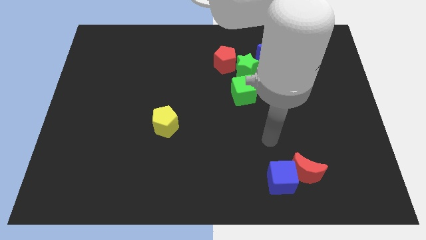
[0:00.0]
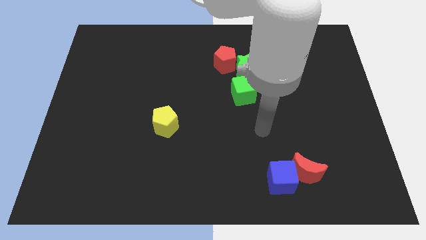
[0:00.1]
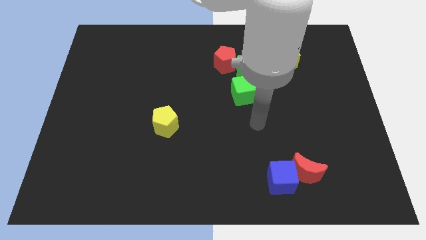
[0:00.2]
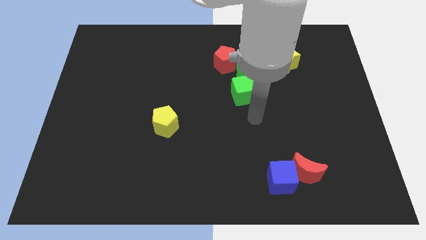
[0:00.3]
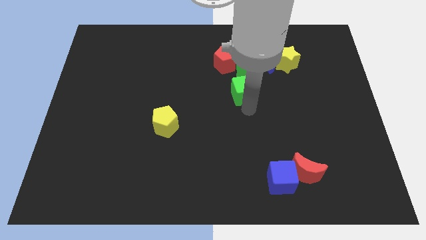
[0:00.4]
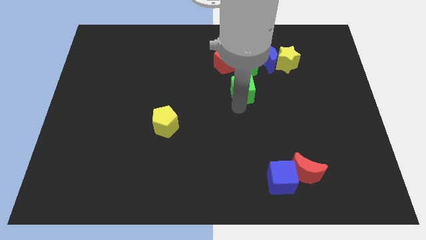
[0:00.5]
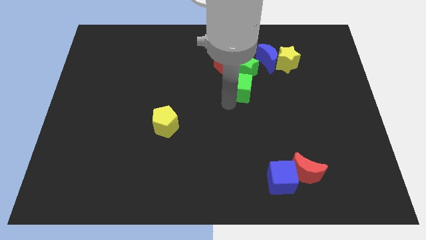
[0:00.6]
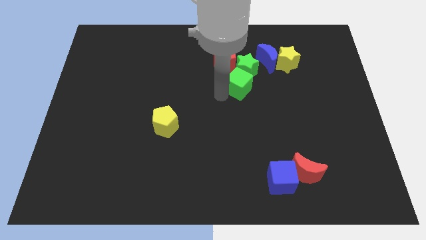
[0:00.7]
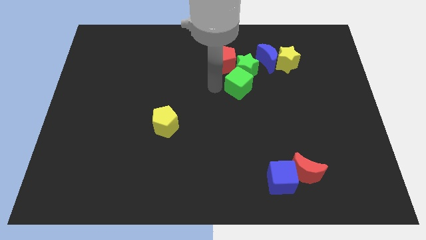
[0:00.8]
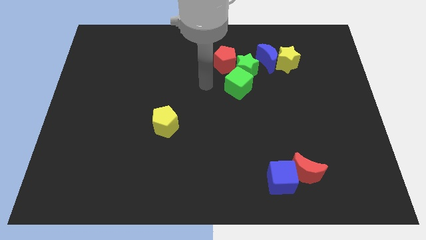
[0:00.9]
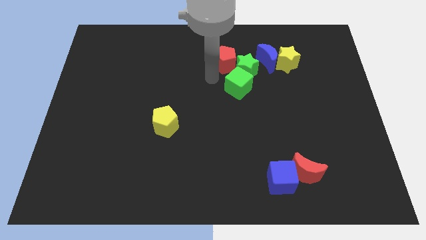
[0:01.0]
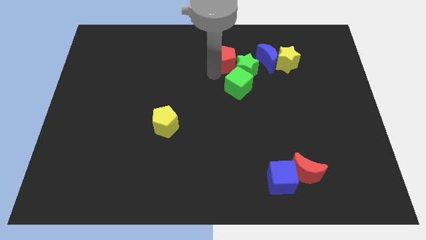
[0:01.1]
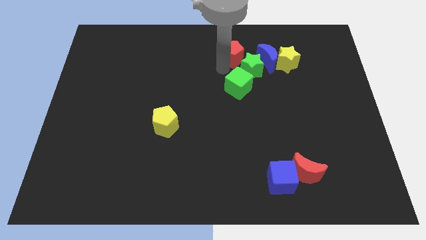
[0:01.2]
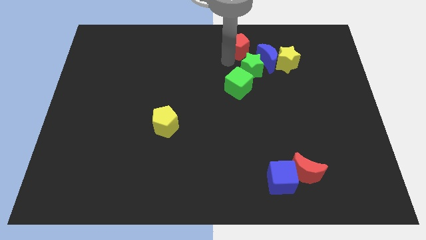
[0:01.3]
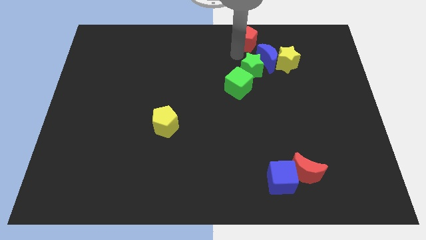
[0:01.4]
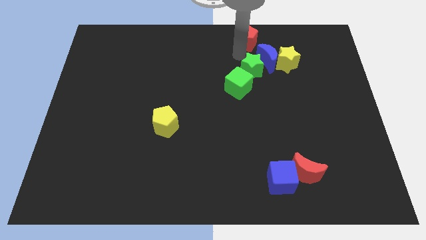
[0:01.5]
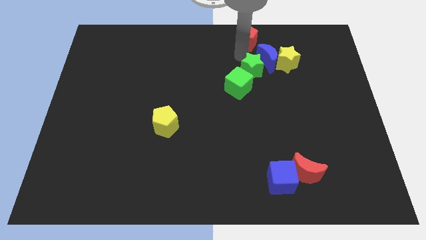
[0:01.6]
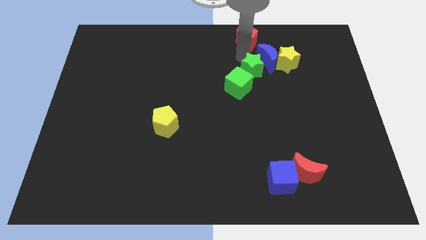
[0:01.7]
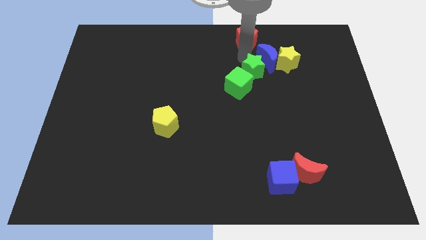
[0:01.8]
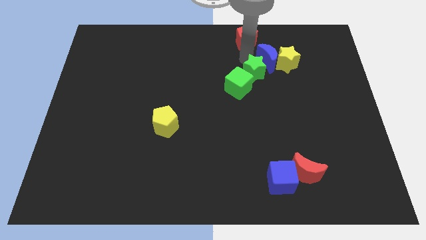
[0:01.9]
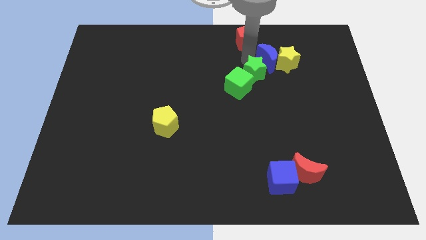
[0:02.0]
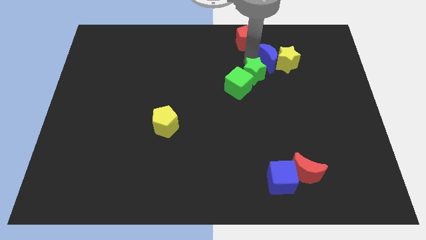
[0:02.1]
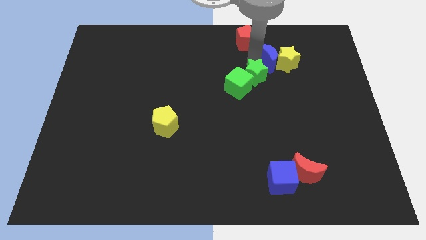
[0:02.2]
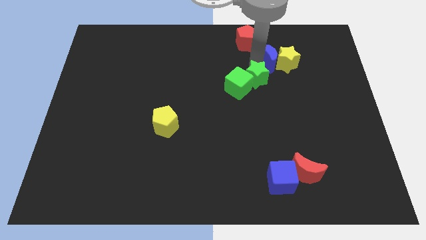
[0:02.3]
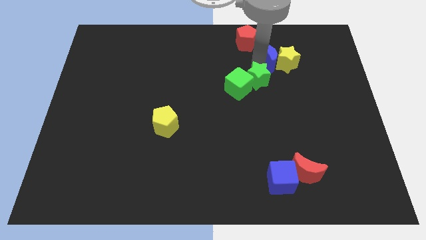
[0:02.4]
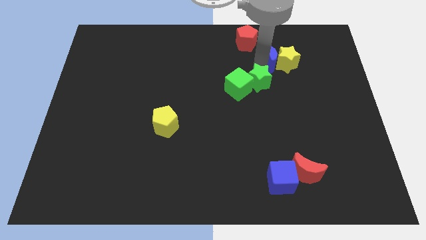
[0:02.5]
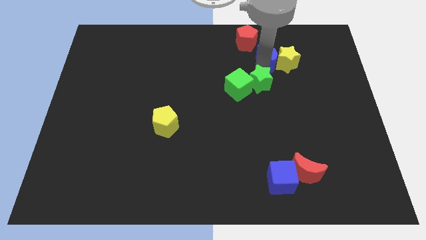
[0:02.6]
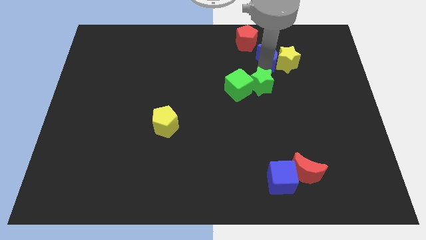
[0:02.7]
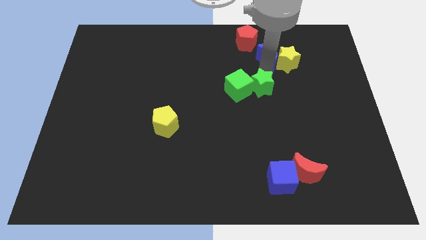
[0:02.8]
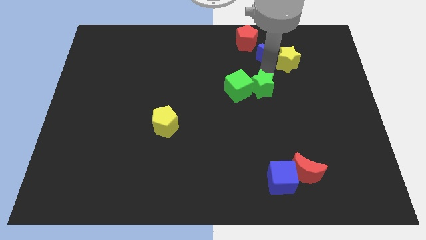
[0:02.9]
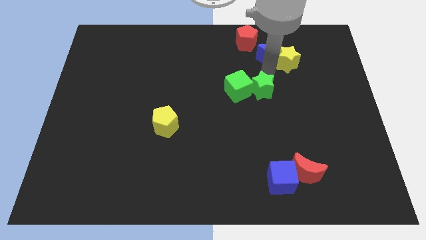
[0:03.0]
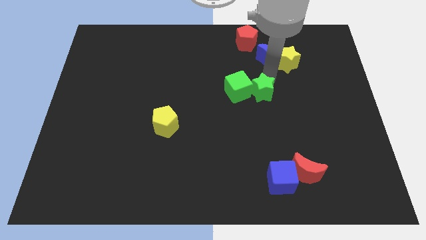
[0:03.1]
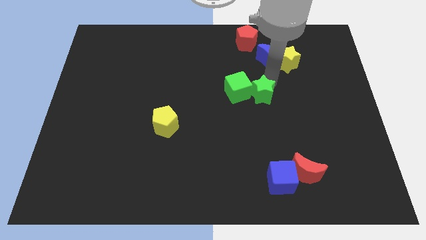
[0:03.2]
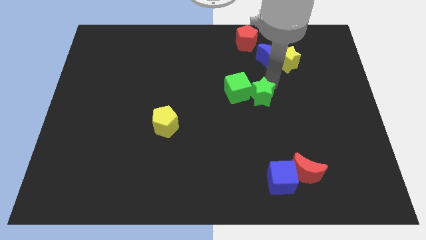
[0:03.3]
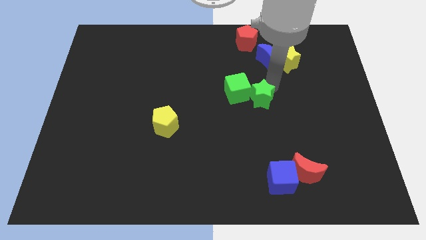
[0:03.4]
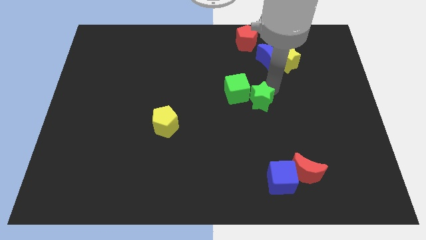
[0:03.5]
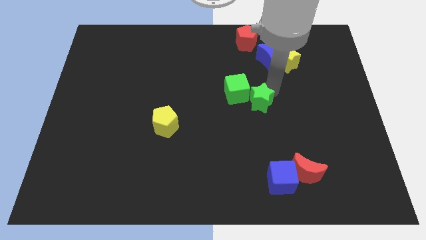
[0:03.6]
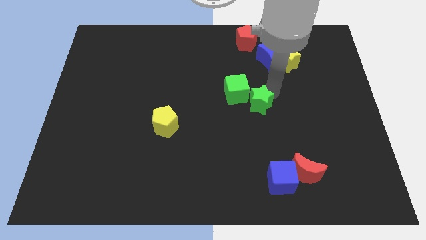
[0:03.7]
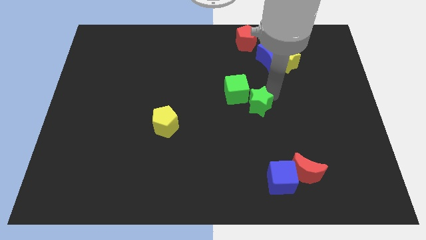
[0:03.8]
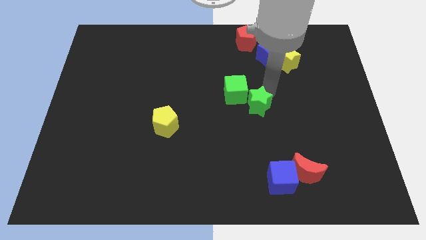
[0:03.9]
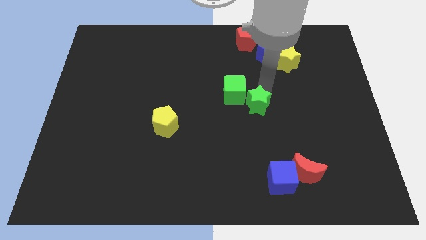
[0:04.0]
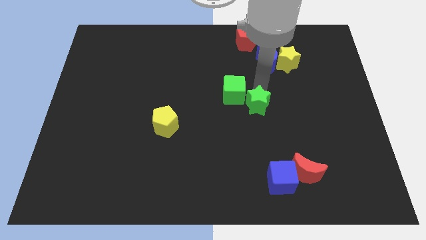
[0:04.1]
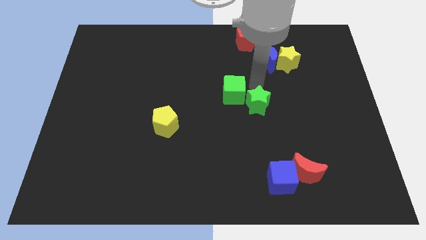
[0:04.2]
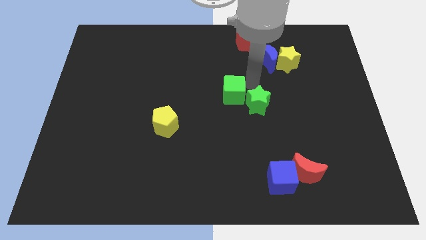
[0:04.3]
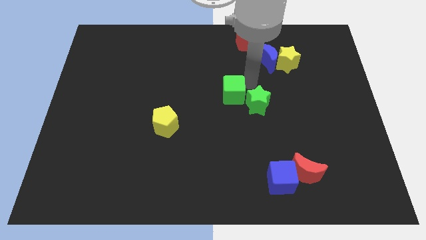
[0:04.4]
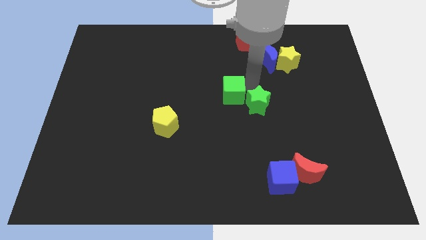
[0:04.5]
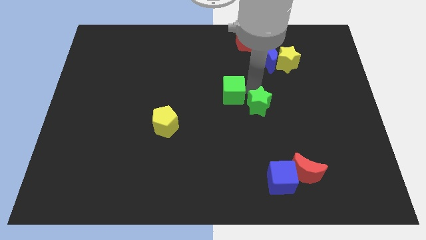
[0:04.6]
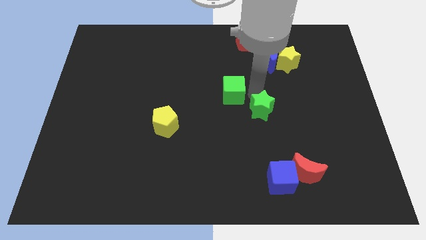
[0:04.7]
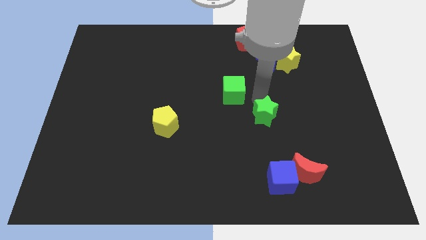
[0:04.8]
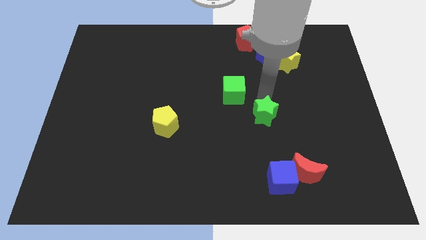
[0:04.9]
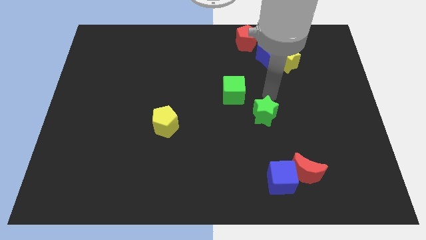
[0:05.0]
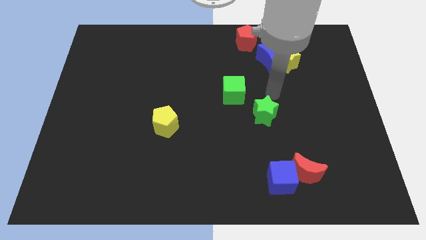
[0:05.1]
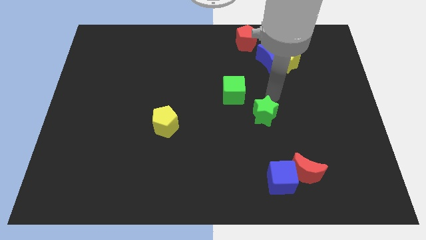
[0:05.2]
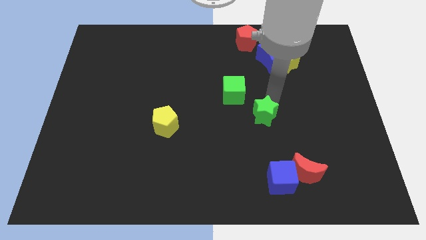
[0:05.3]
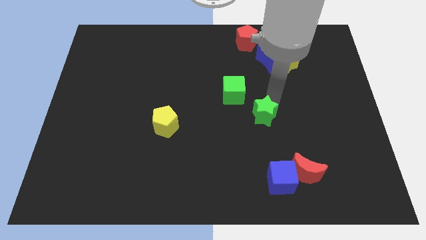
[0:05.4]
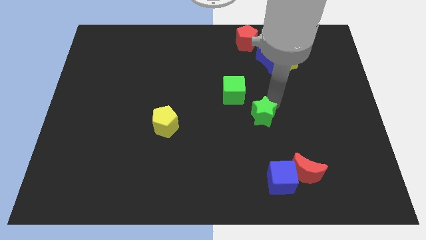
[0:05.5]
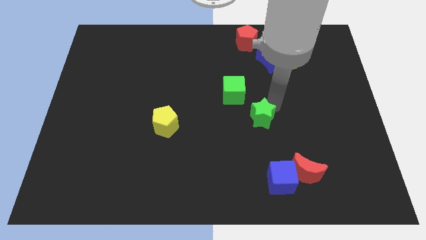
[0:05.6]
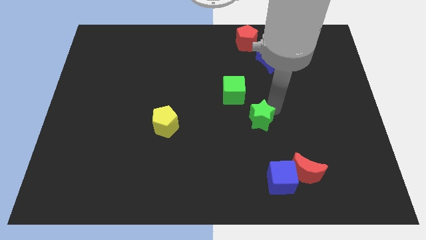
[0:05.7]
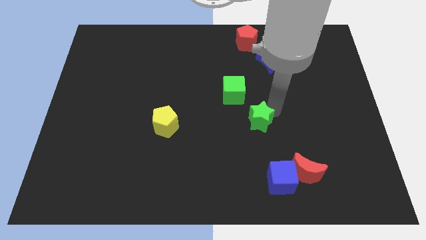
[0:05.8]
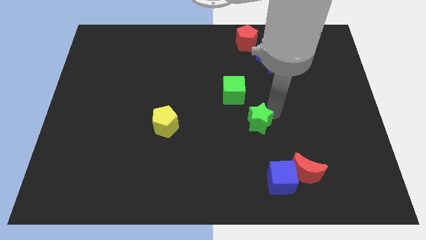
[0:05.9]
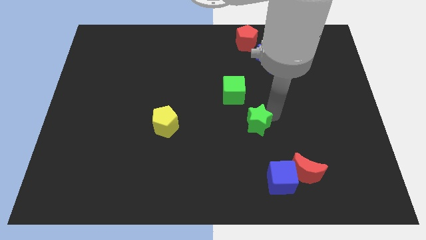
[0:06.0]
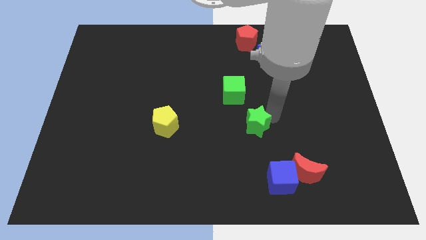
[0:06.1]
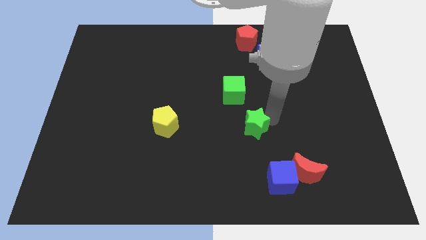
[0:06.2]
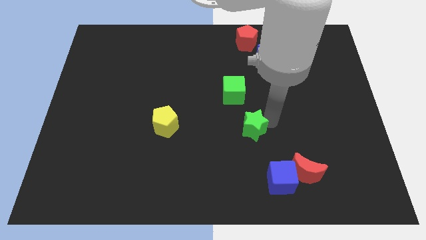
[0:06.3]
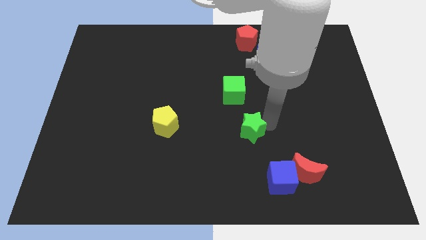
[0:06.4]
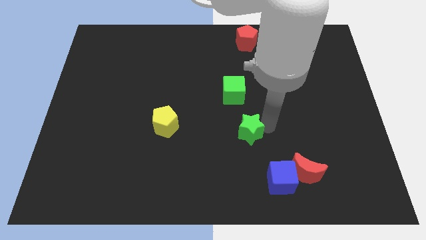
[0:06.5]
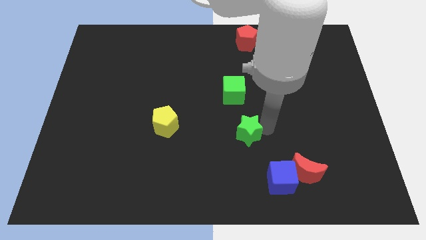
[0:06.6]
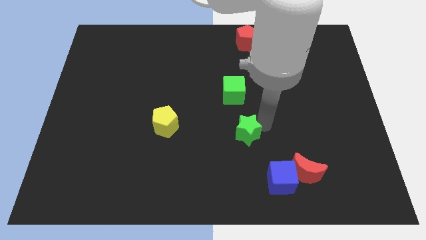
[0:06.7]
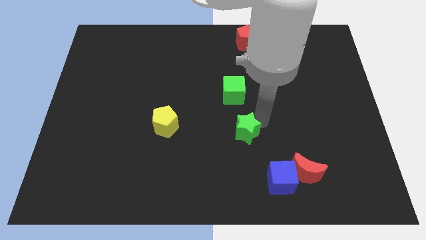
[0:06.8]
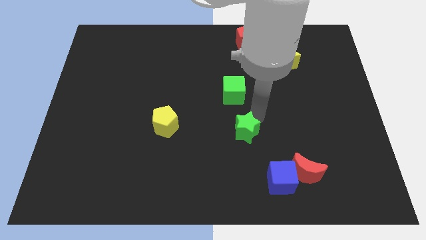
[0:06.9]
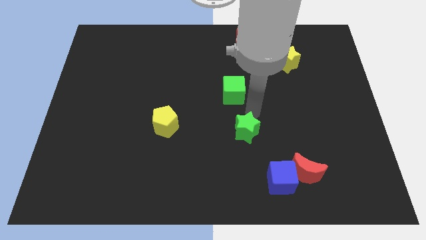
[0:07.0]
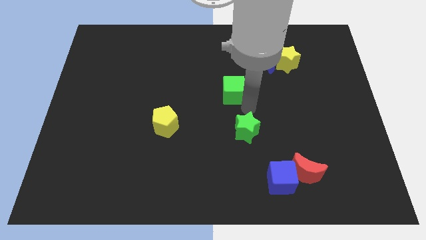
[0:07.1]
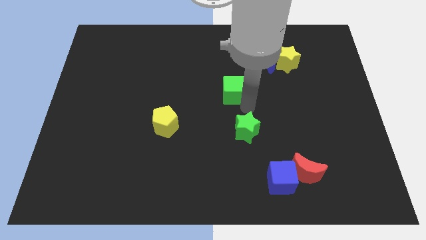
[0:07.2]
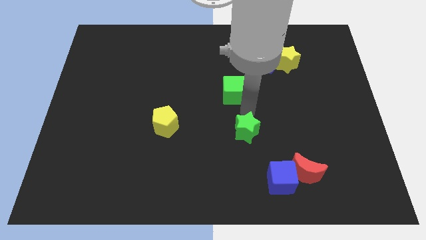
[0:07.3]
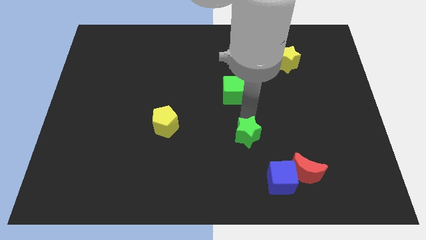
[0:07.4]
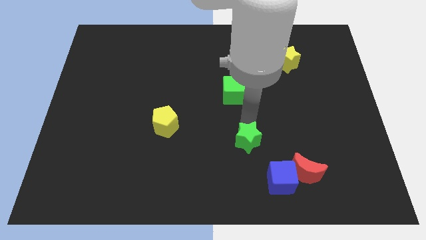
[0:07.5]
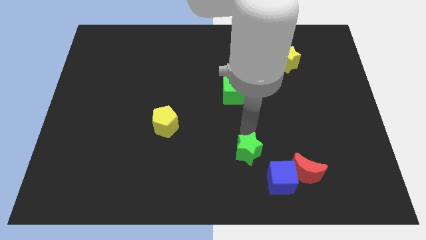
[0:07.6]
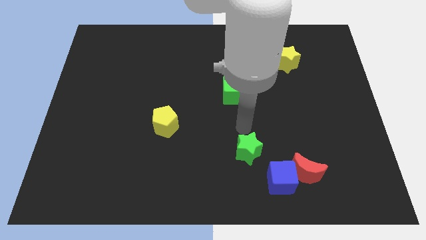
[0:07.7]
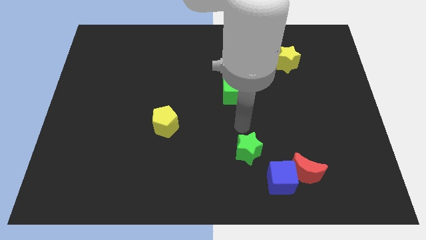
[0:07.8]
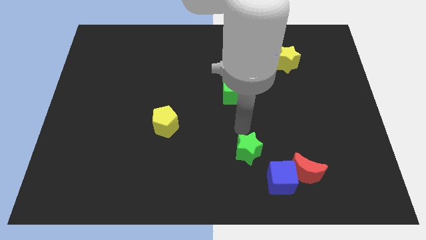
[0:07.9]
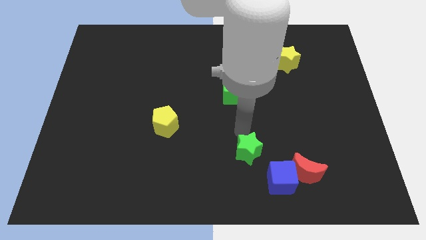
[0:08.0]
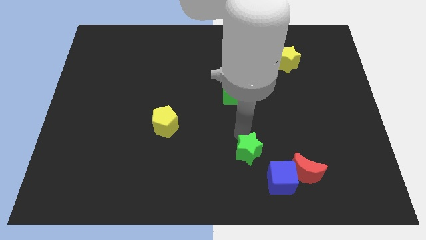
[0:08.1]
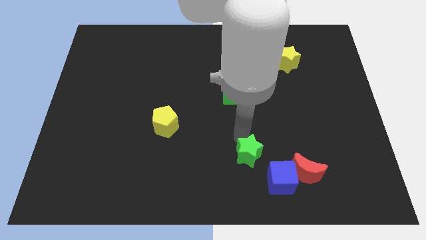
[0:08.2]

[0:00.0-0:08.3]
push the green star to the left side of the red moon
